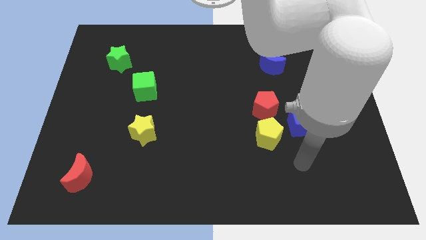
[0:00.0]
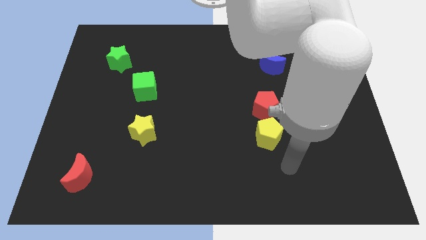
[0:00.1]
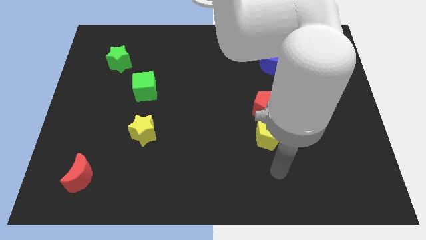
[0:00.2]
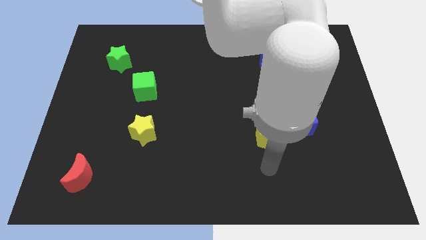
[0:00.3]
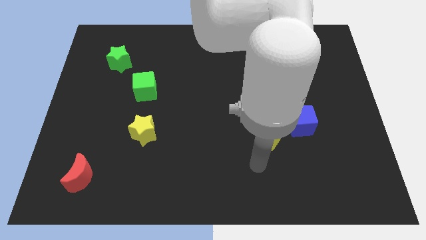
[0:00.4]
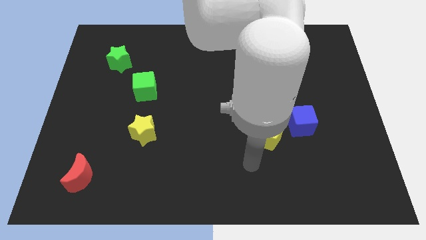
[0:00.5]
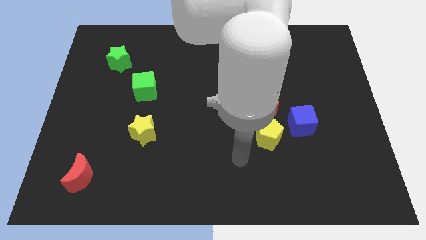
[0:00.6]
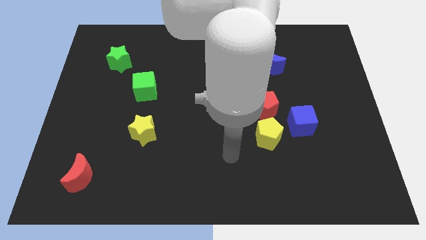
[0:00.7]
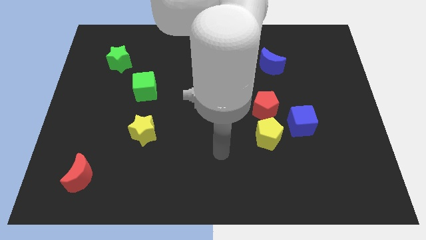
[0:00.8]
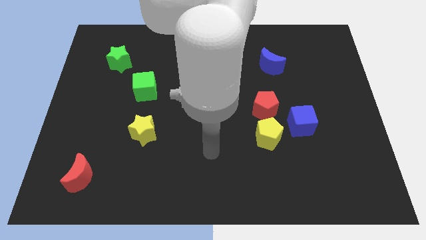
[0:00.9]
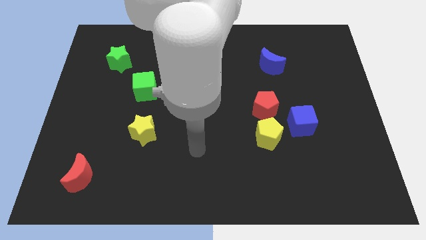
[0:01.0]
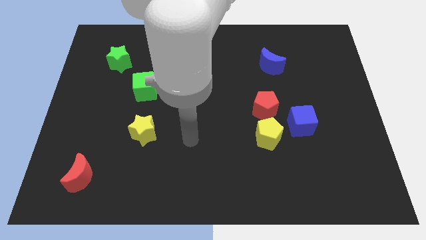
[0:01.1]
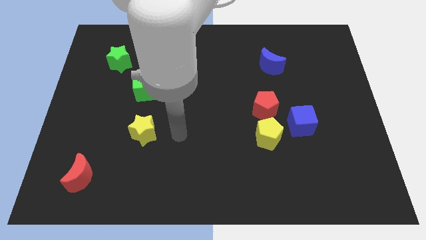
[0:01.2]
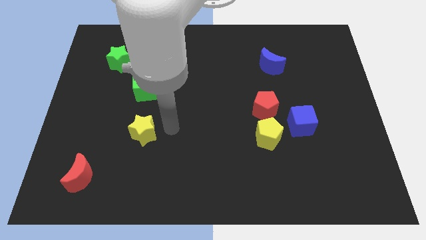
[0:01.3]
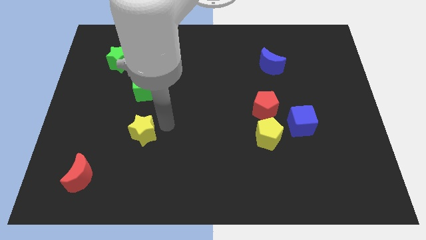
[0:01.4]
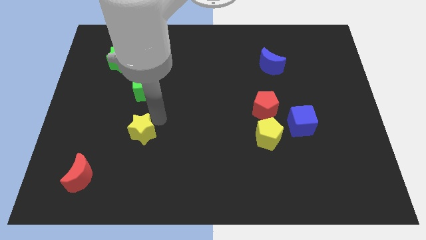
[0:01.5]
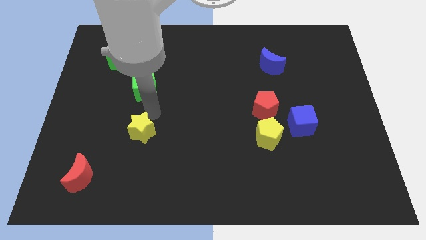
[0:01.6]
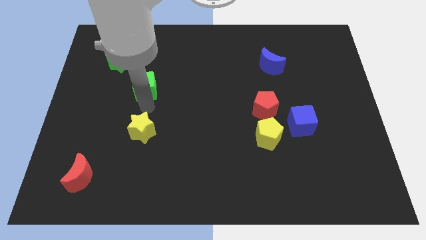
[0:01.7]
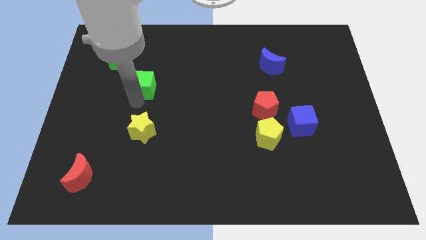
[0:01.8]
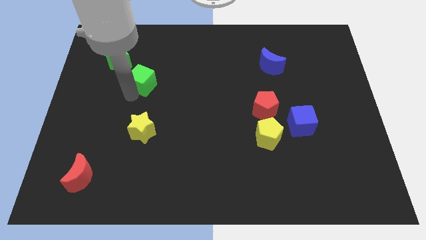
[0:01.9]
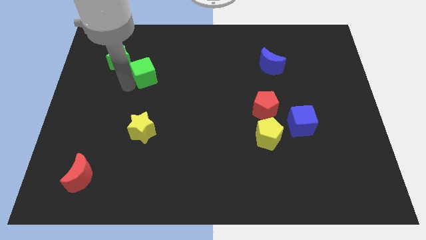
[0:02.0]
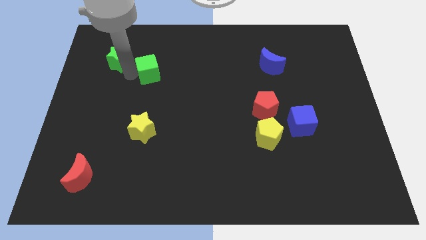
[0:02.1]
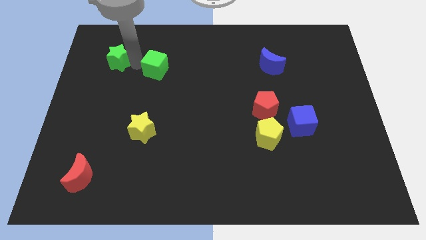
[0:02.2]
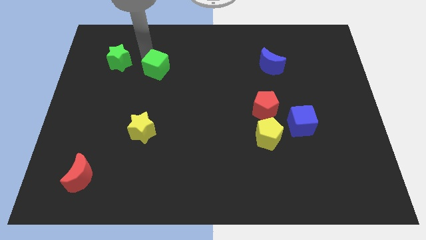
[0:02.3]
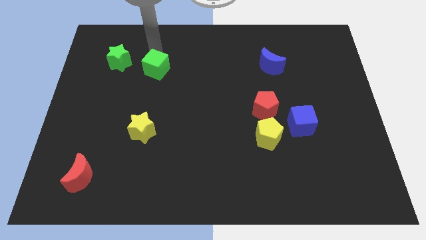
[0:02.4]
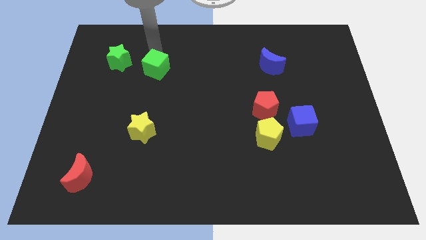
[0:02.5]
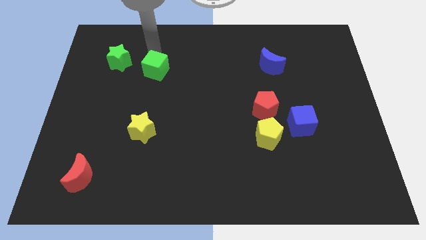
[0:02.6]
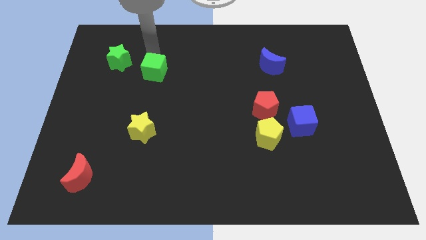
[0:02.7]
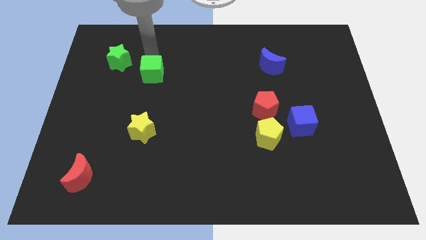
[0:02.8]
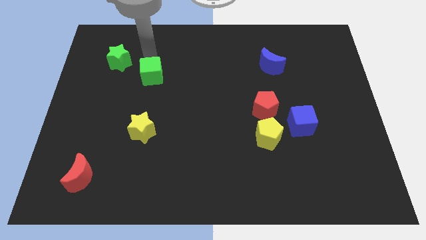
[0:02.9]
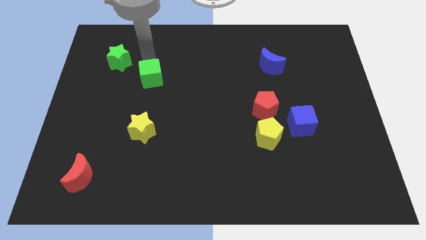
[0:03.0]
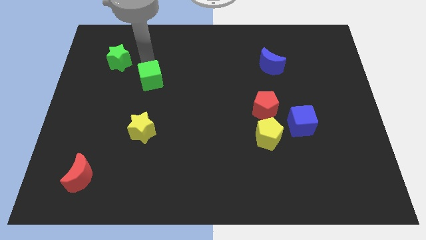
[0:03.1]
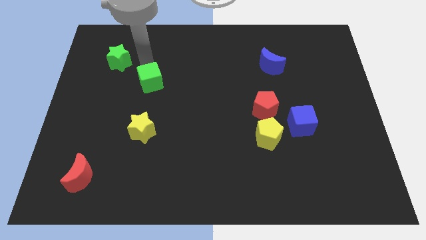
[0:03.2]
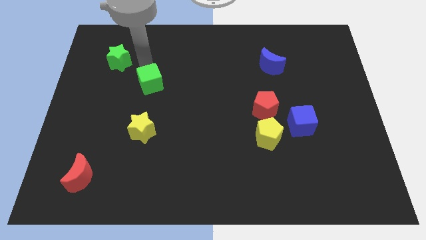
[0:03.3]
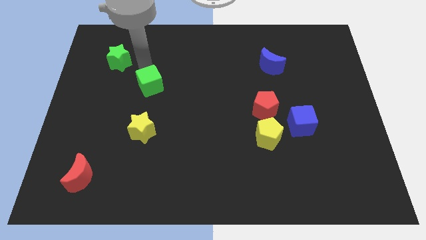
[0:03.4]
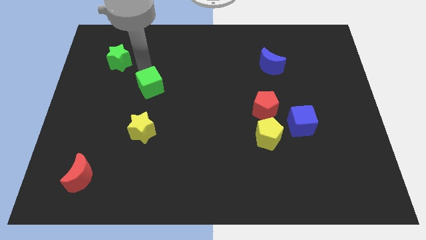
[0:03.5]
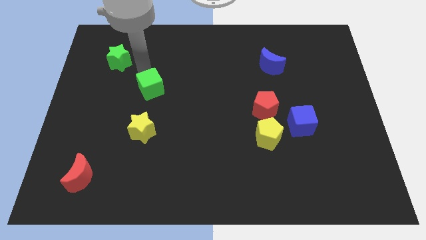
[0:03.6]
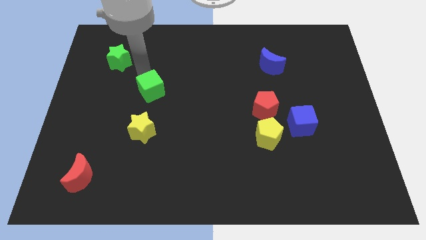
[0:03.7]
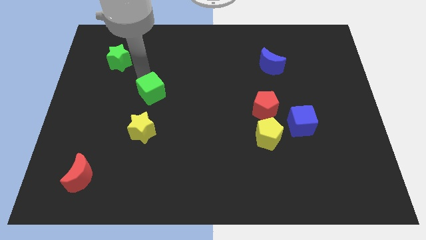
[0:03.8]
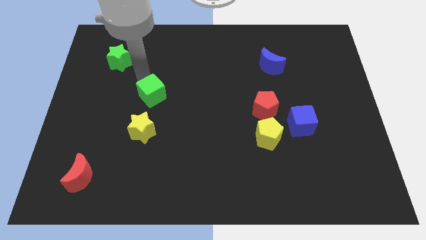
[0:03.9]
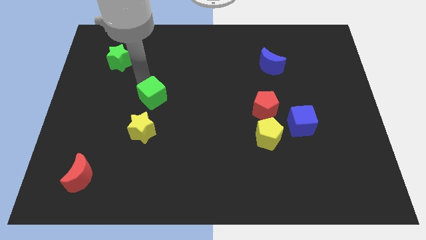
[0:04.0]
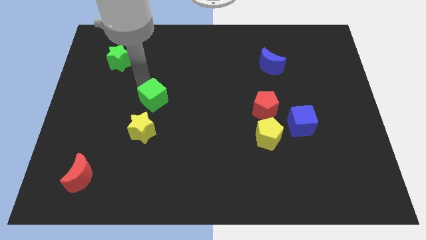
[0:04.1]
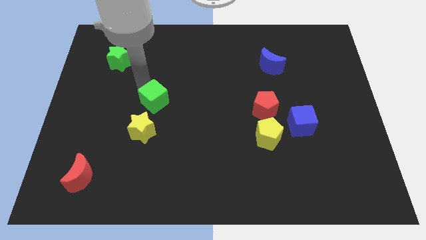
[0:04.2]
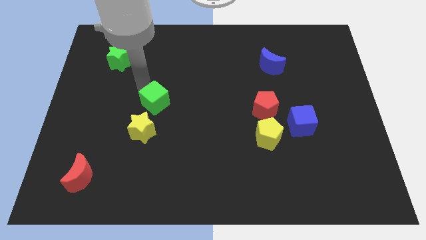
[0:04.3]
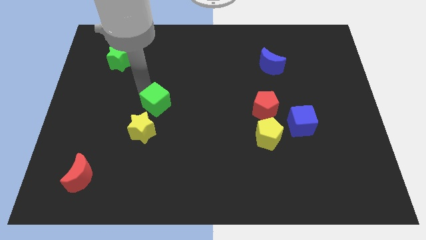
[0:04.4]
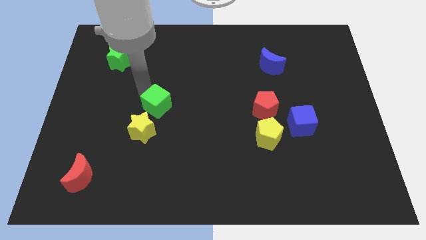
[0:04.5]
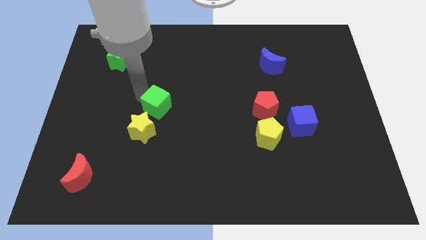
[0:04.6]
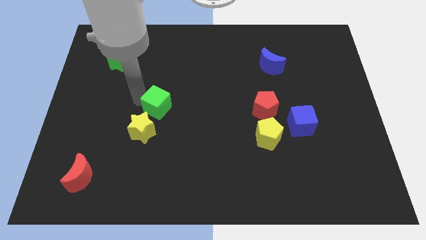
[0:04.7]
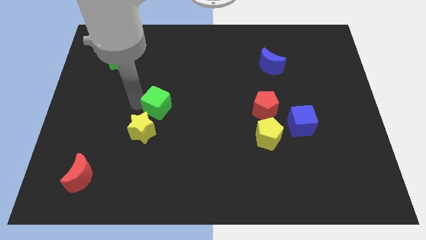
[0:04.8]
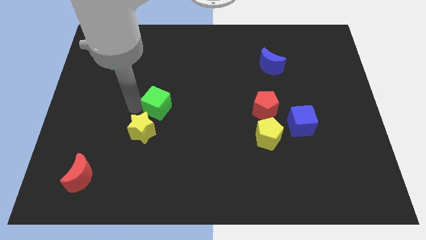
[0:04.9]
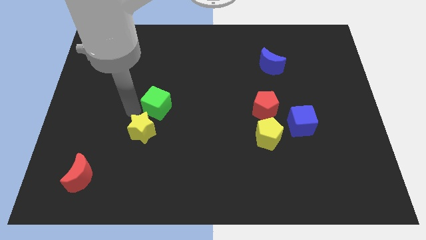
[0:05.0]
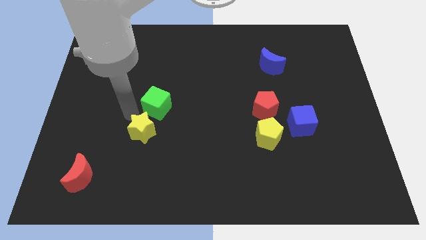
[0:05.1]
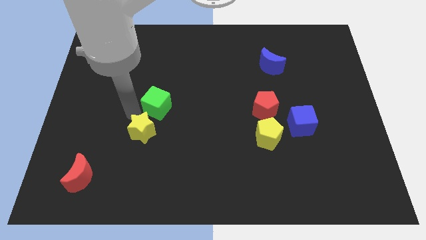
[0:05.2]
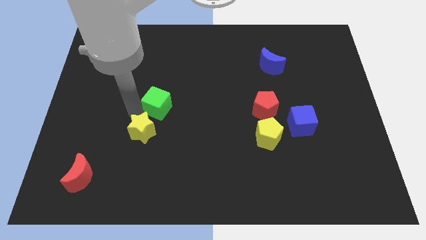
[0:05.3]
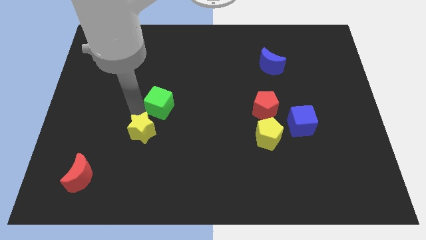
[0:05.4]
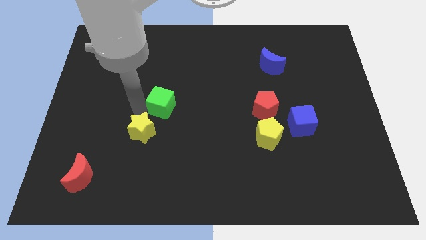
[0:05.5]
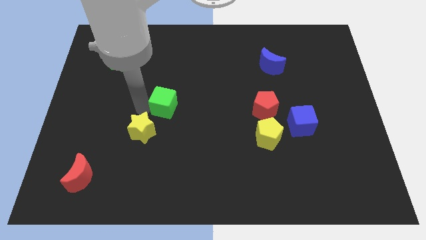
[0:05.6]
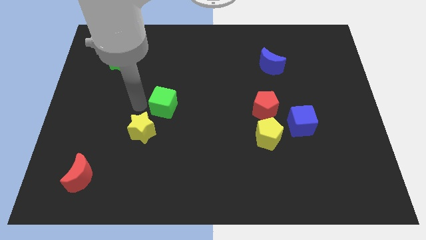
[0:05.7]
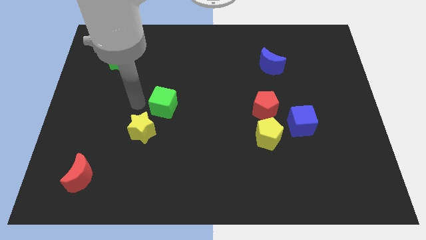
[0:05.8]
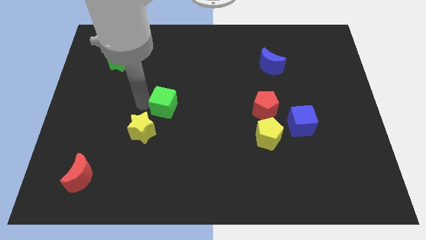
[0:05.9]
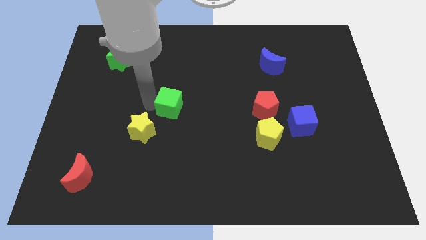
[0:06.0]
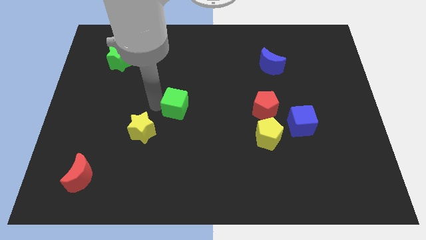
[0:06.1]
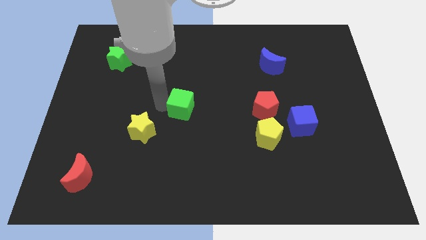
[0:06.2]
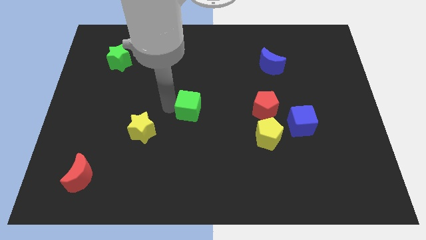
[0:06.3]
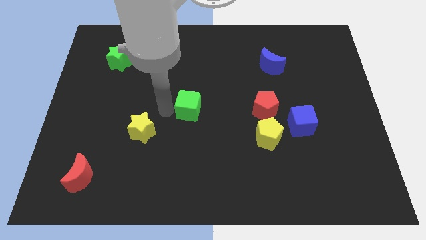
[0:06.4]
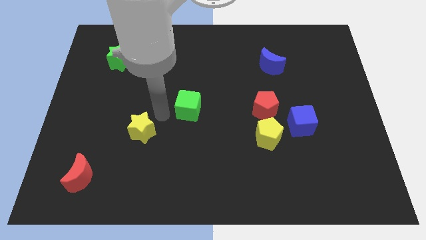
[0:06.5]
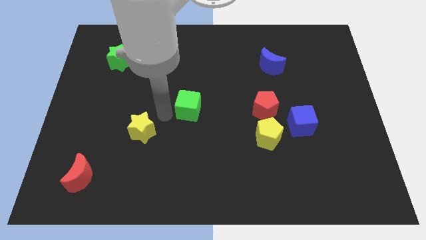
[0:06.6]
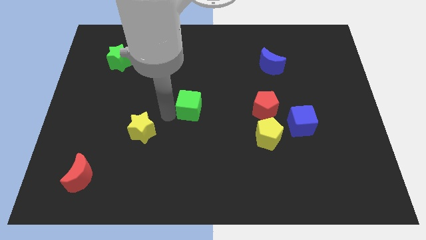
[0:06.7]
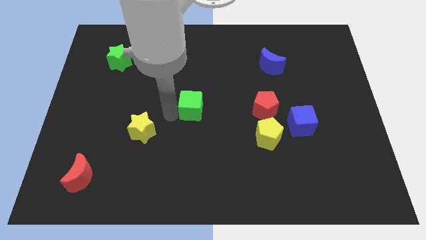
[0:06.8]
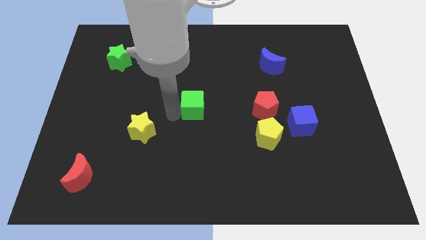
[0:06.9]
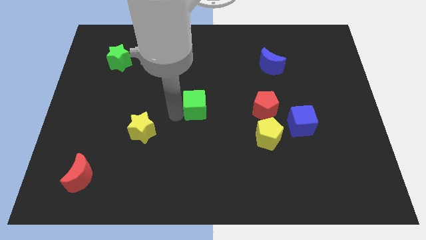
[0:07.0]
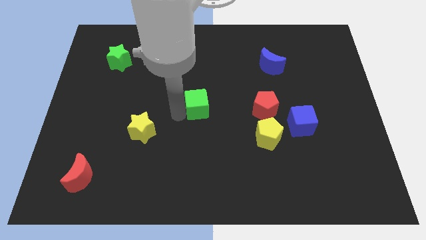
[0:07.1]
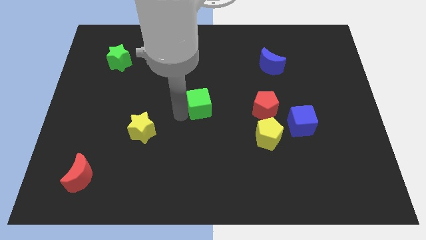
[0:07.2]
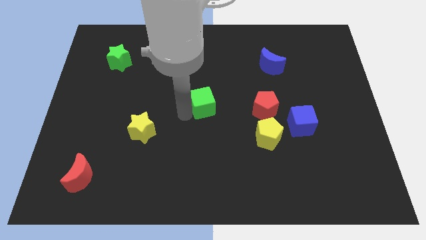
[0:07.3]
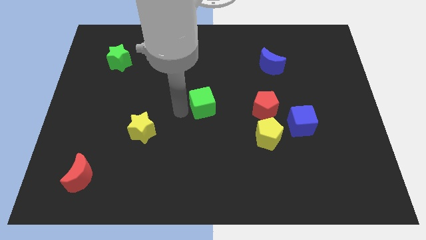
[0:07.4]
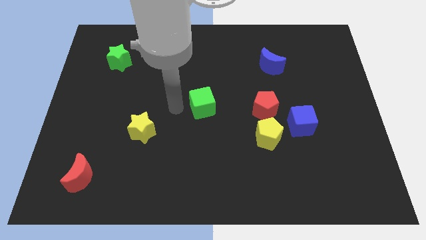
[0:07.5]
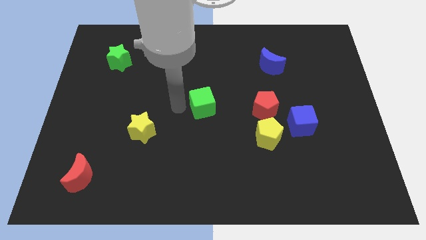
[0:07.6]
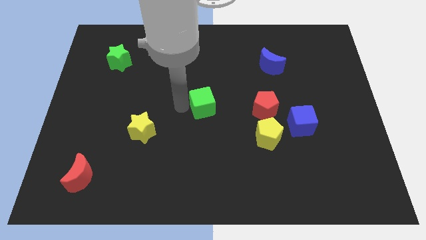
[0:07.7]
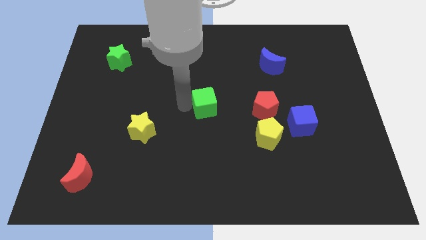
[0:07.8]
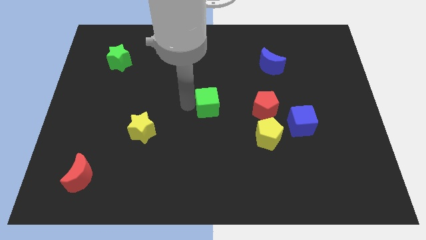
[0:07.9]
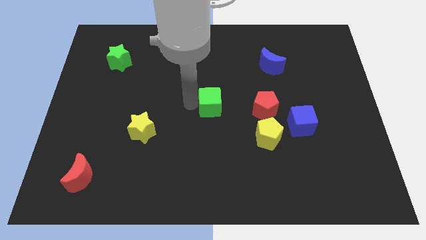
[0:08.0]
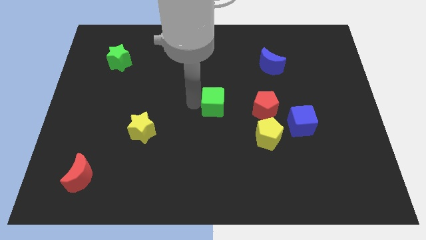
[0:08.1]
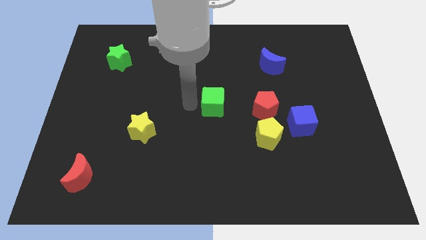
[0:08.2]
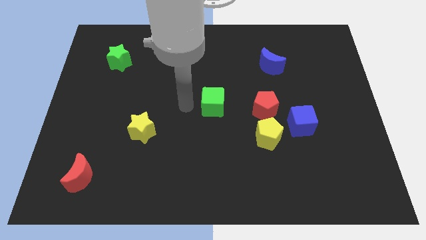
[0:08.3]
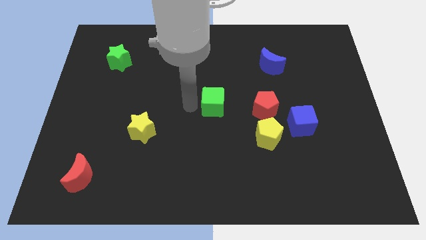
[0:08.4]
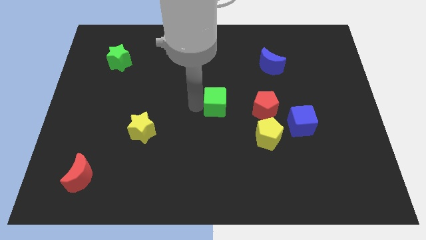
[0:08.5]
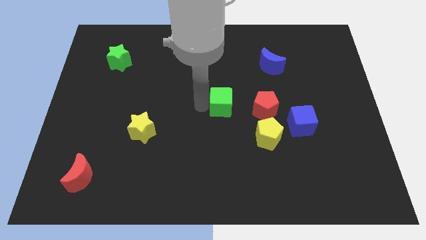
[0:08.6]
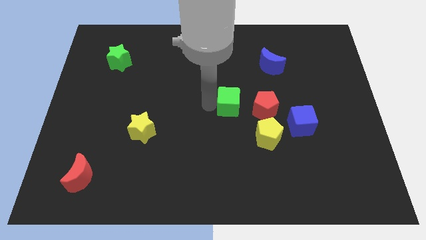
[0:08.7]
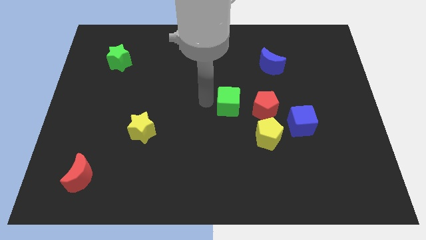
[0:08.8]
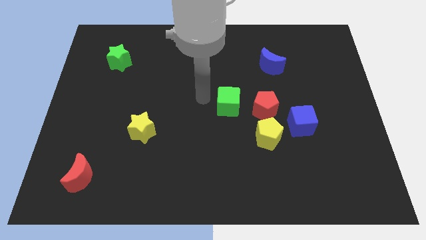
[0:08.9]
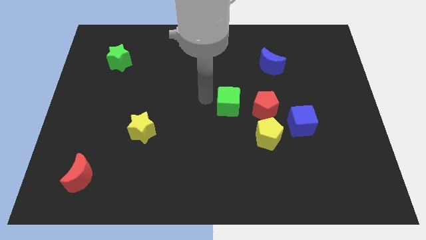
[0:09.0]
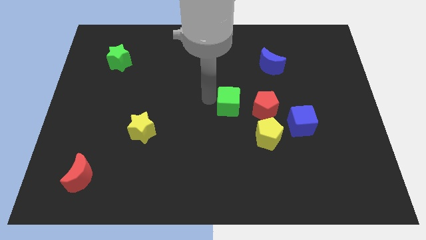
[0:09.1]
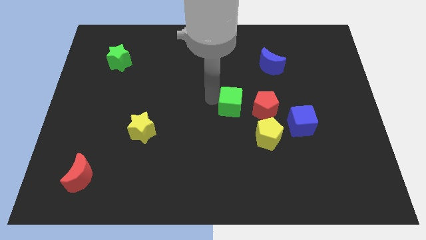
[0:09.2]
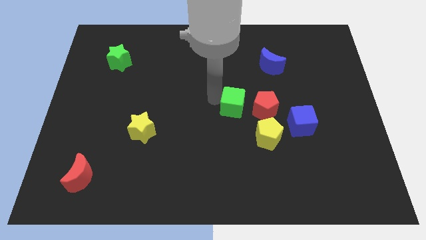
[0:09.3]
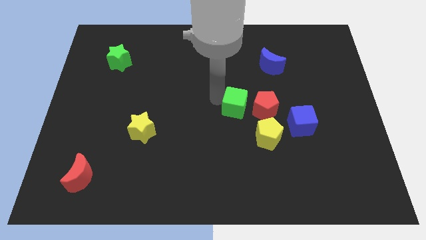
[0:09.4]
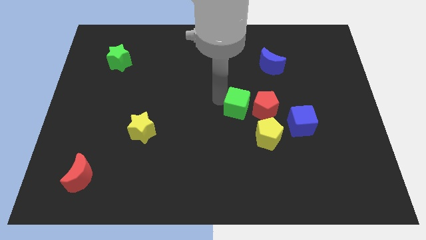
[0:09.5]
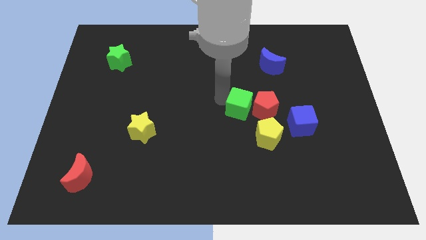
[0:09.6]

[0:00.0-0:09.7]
slide the green cube close to the red pentagon
